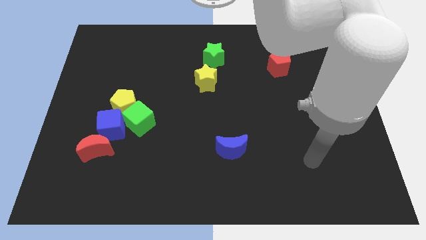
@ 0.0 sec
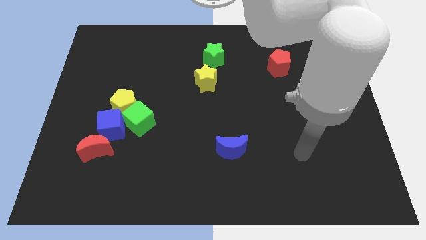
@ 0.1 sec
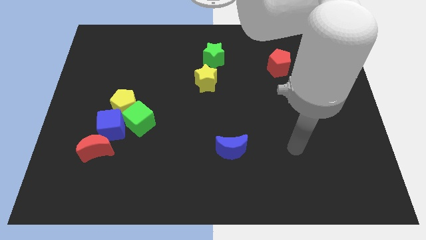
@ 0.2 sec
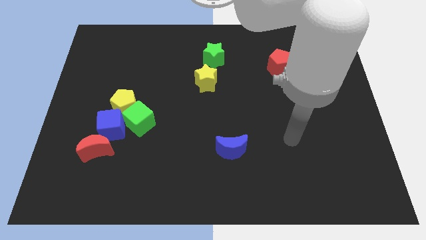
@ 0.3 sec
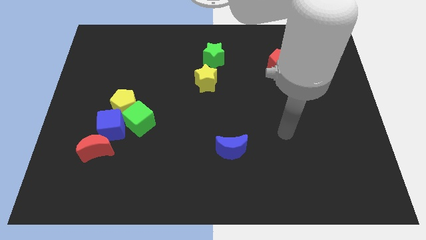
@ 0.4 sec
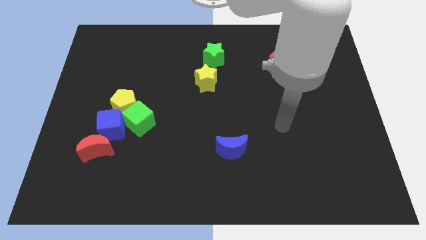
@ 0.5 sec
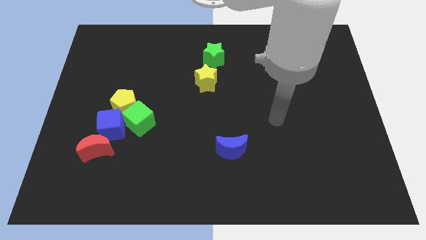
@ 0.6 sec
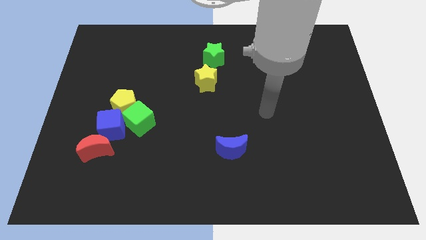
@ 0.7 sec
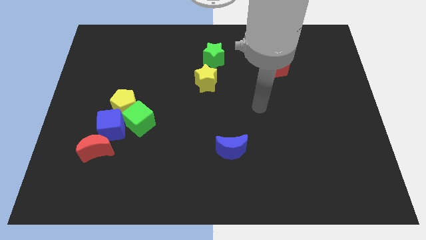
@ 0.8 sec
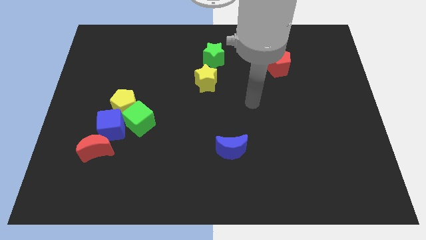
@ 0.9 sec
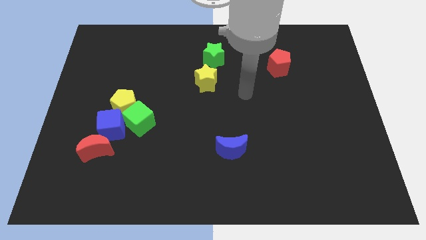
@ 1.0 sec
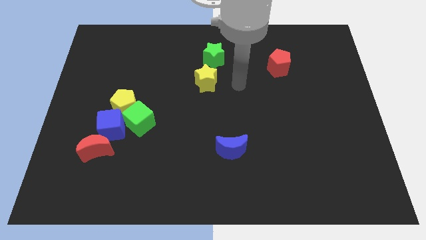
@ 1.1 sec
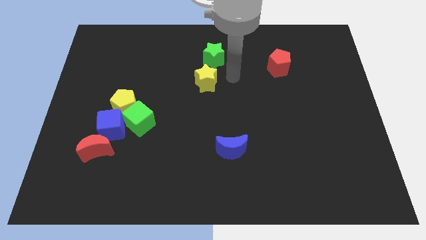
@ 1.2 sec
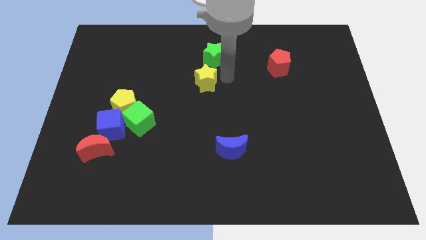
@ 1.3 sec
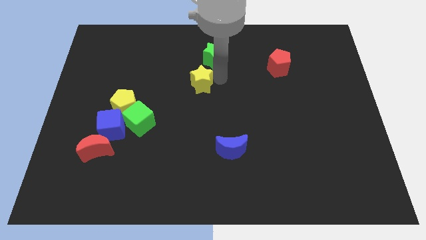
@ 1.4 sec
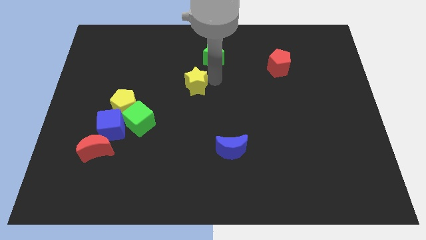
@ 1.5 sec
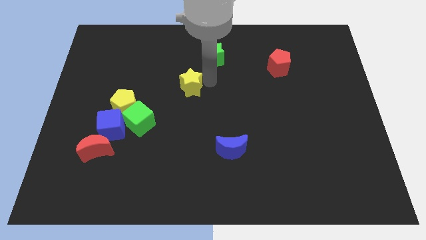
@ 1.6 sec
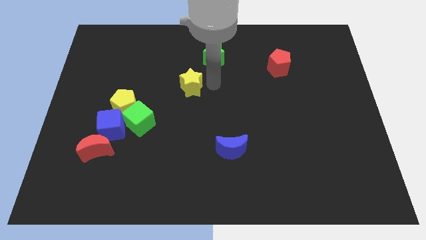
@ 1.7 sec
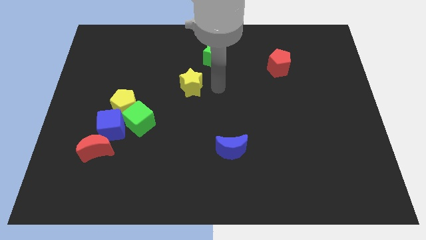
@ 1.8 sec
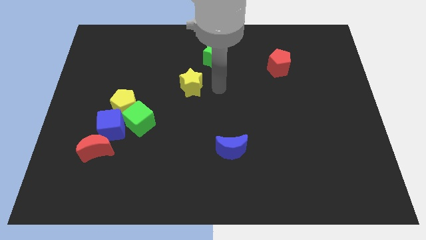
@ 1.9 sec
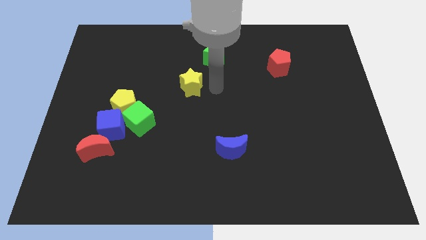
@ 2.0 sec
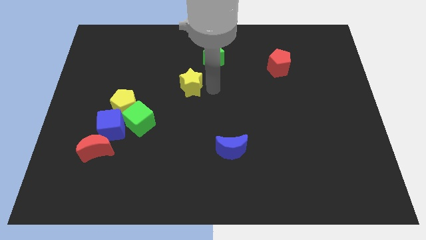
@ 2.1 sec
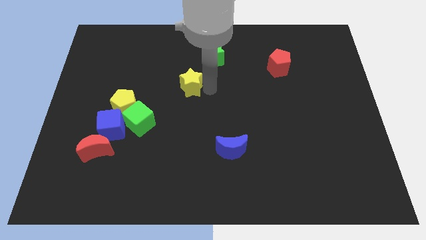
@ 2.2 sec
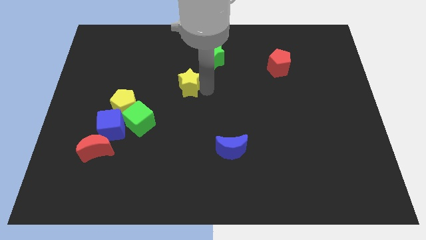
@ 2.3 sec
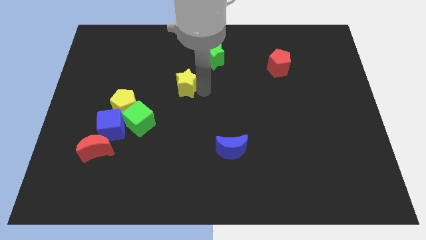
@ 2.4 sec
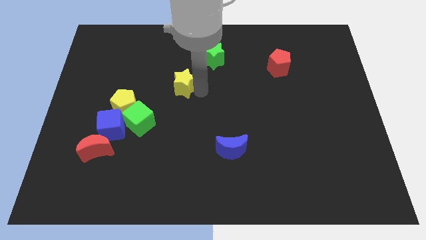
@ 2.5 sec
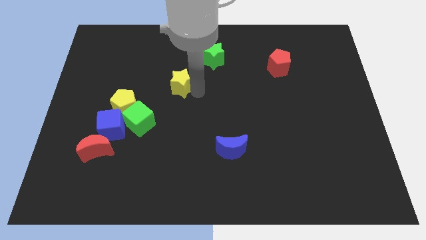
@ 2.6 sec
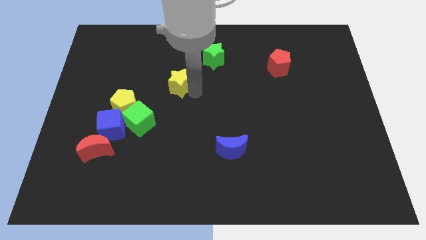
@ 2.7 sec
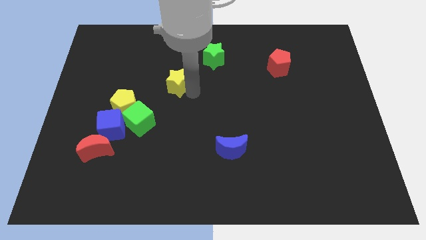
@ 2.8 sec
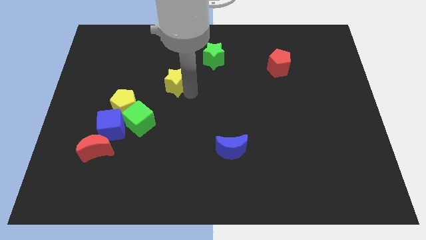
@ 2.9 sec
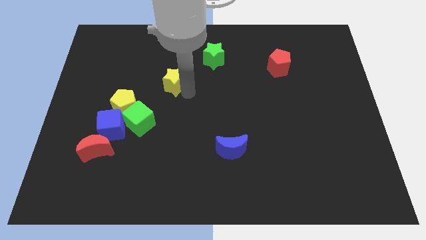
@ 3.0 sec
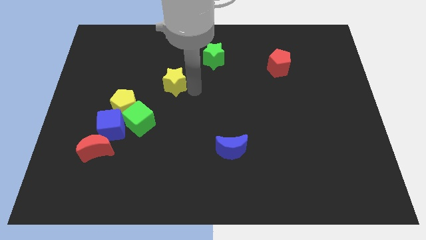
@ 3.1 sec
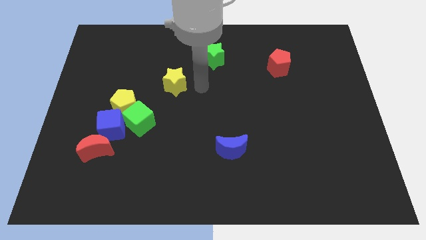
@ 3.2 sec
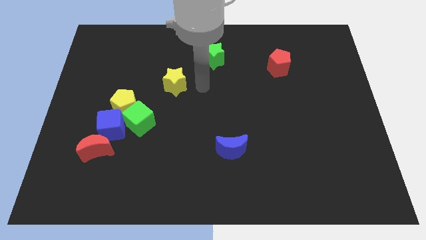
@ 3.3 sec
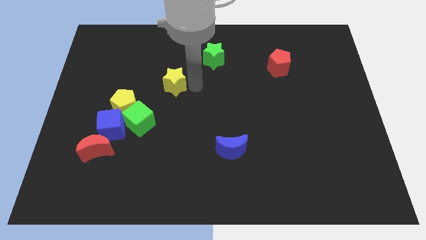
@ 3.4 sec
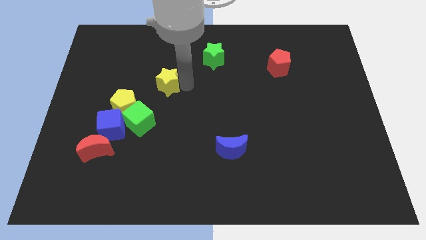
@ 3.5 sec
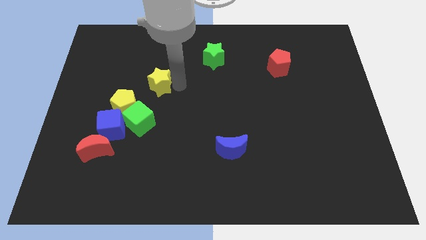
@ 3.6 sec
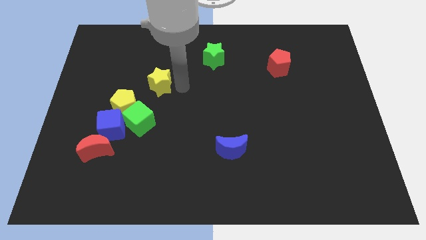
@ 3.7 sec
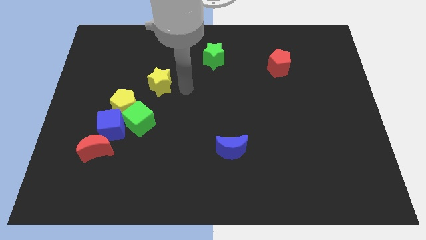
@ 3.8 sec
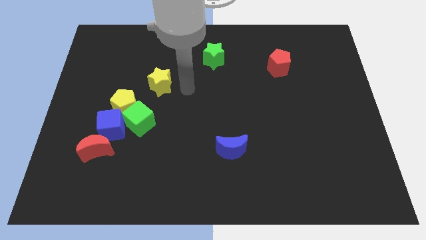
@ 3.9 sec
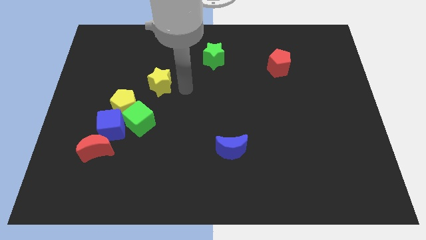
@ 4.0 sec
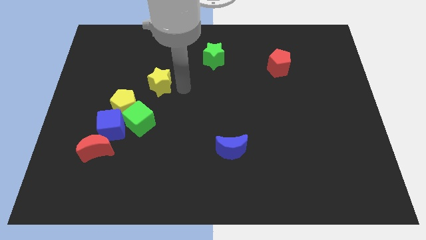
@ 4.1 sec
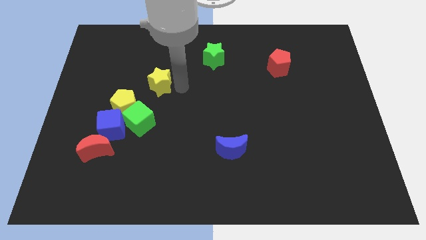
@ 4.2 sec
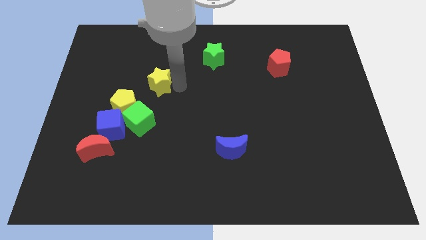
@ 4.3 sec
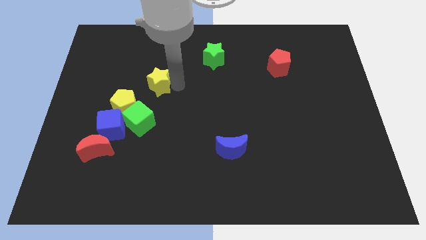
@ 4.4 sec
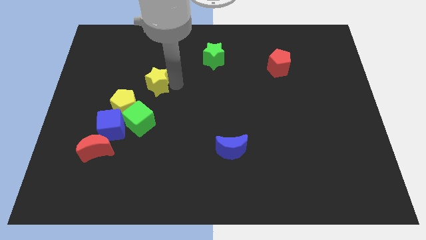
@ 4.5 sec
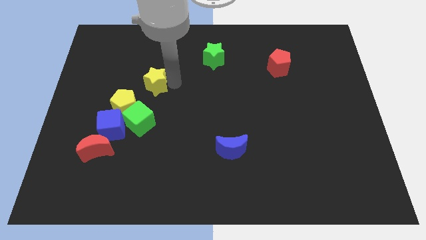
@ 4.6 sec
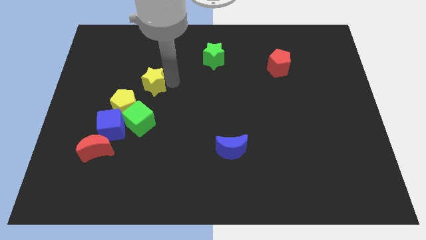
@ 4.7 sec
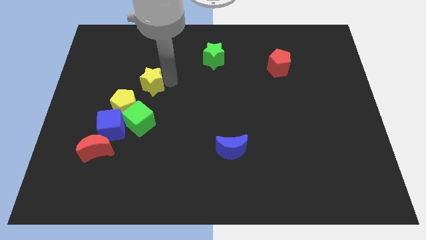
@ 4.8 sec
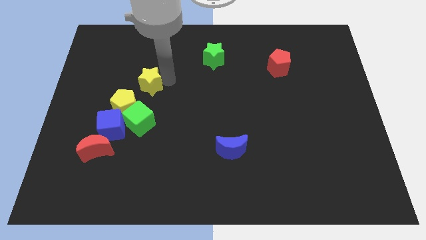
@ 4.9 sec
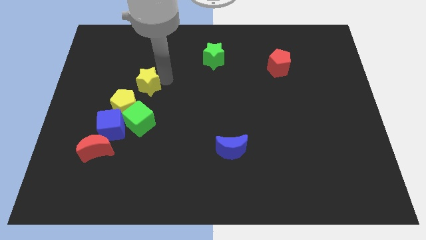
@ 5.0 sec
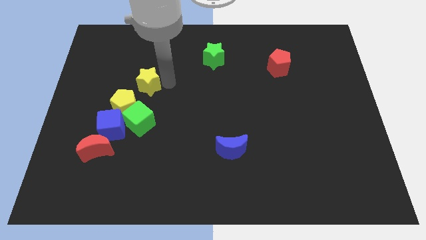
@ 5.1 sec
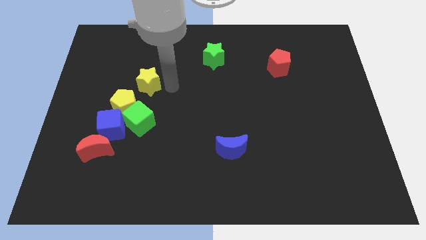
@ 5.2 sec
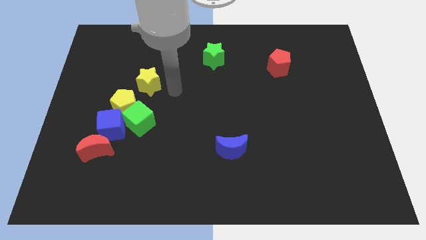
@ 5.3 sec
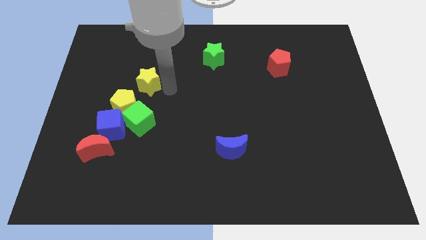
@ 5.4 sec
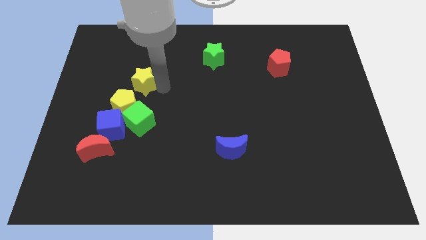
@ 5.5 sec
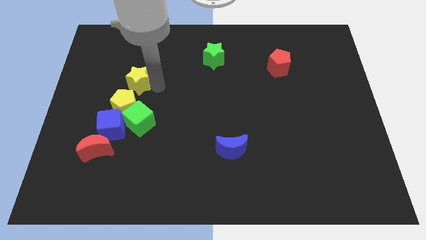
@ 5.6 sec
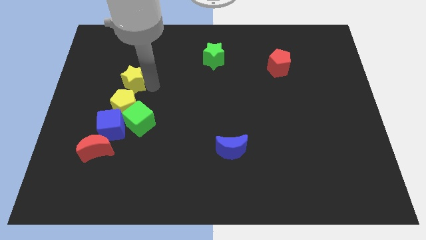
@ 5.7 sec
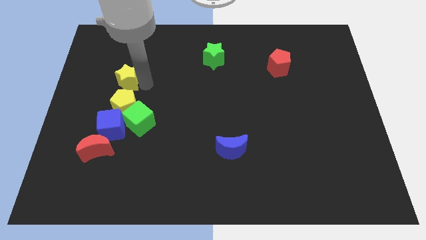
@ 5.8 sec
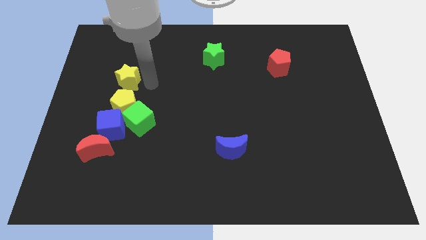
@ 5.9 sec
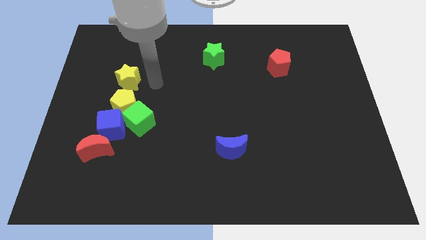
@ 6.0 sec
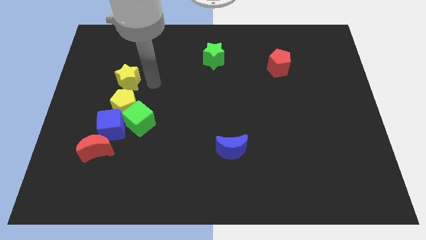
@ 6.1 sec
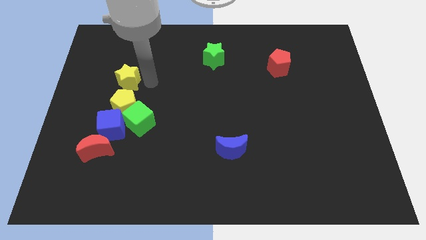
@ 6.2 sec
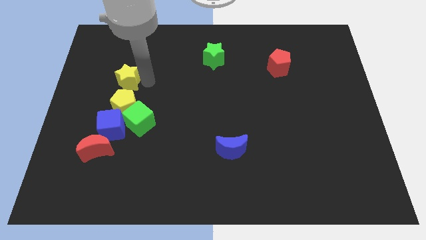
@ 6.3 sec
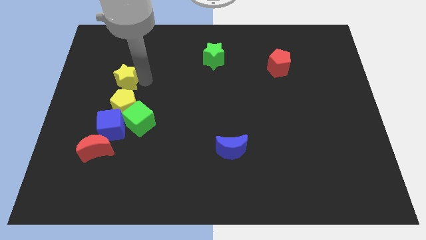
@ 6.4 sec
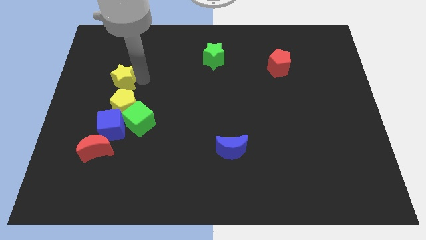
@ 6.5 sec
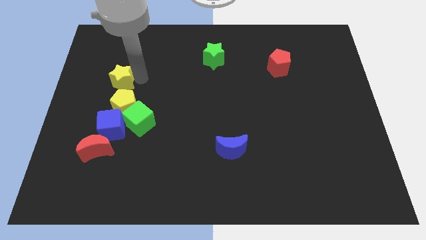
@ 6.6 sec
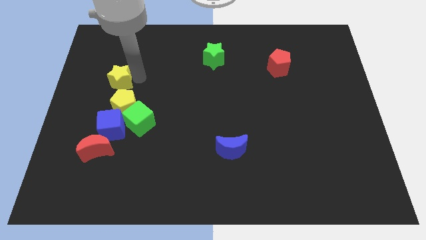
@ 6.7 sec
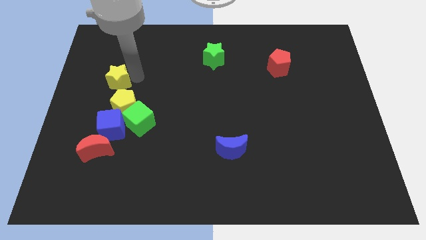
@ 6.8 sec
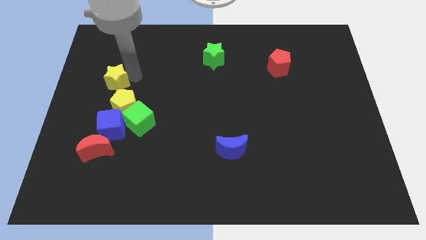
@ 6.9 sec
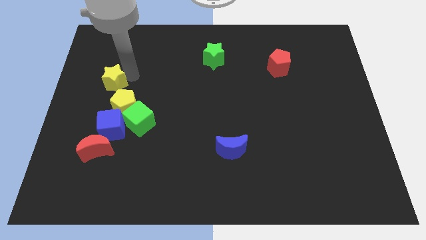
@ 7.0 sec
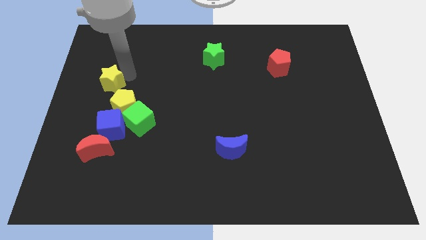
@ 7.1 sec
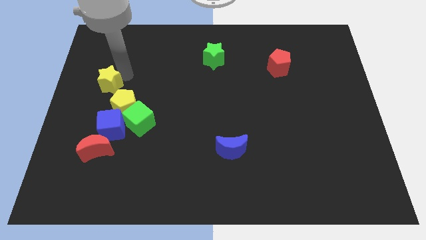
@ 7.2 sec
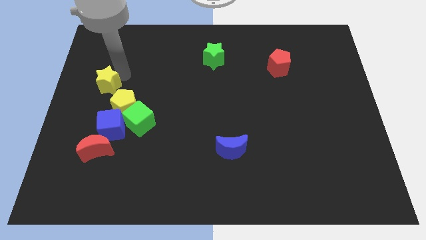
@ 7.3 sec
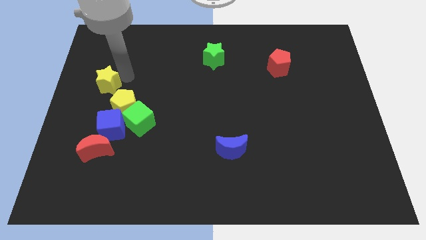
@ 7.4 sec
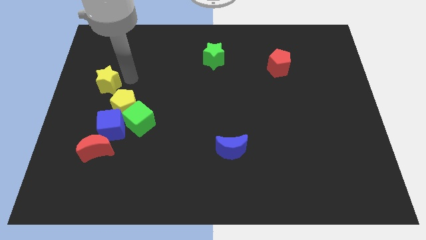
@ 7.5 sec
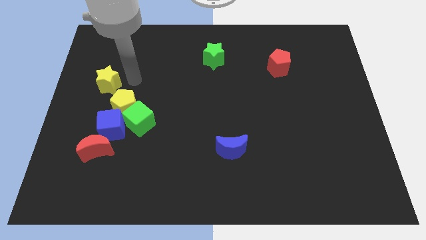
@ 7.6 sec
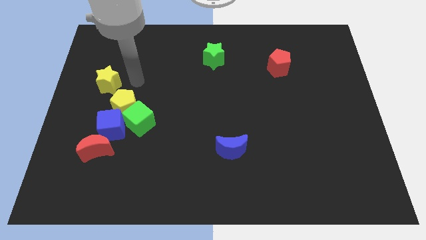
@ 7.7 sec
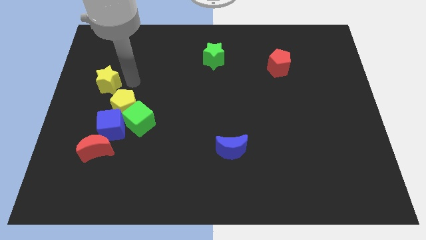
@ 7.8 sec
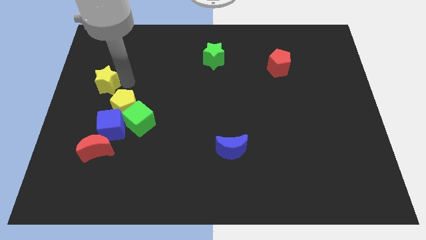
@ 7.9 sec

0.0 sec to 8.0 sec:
put the yellow star to the left side
